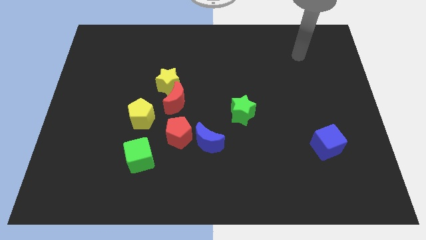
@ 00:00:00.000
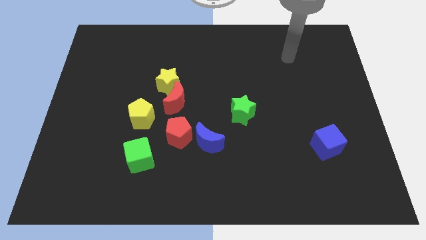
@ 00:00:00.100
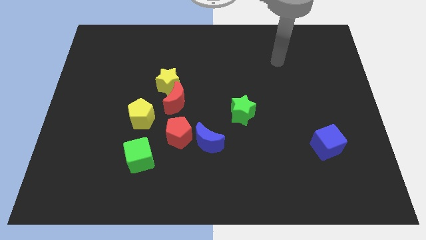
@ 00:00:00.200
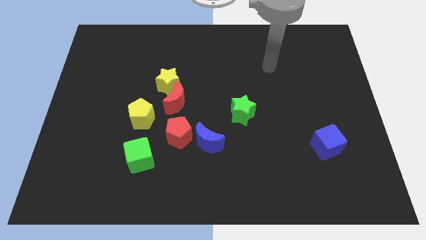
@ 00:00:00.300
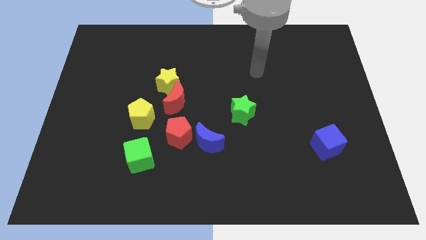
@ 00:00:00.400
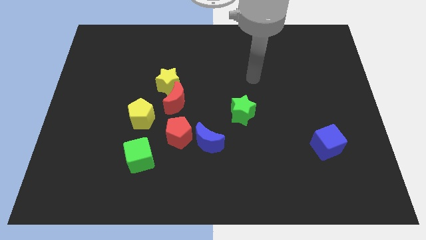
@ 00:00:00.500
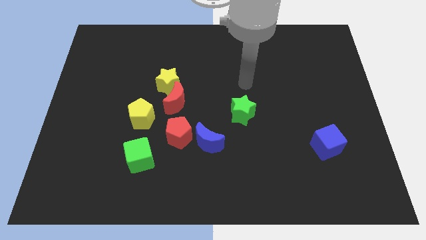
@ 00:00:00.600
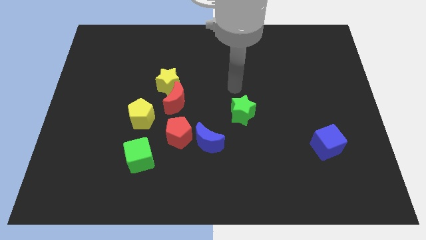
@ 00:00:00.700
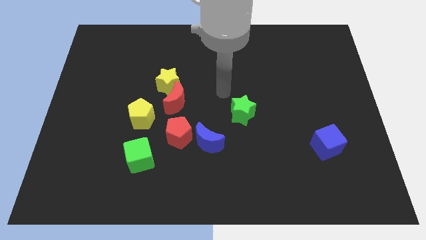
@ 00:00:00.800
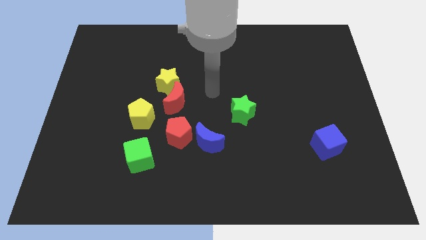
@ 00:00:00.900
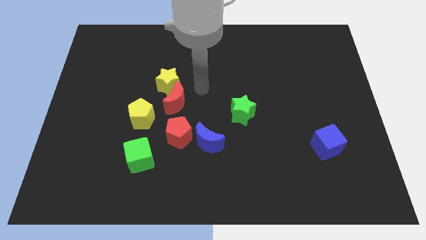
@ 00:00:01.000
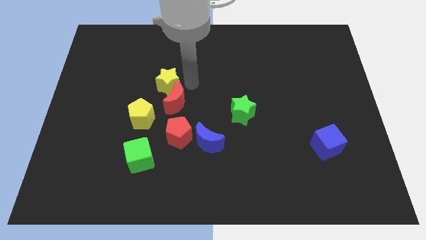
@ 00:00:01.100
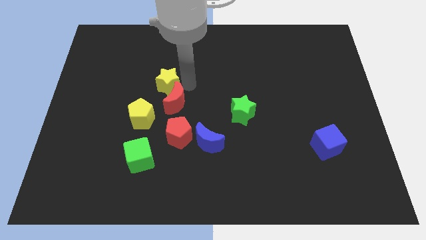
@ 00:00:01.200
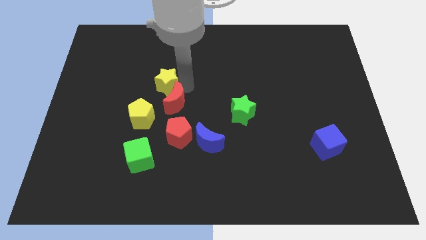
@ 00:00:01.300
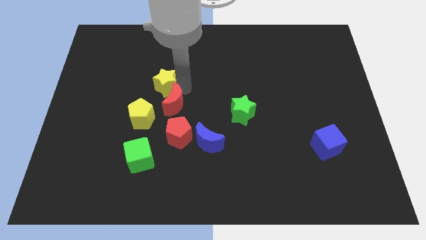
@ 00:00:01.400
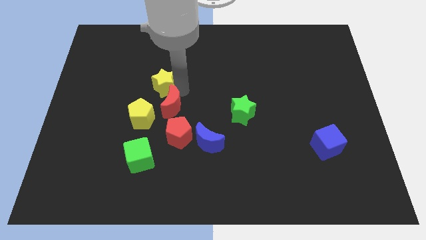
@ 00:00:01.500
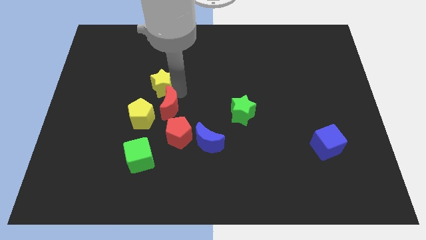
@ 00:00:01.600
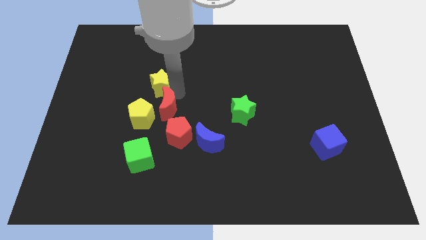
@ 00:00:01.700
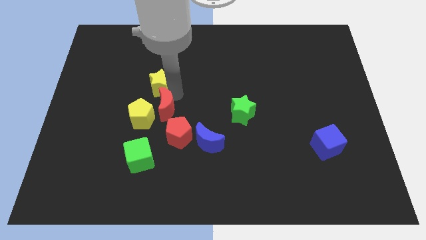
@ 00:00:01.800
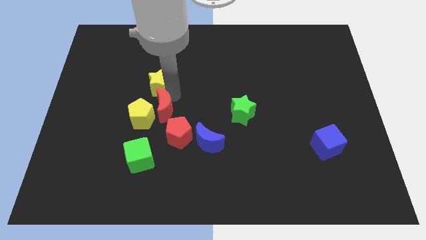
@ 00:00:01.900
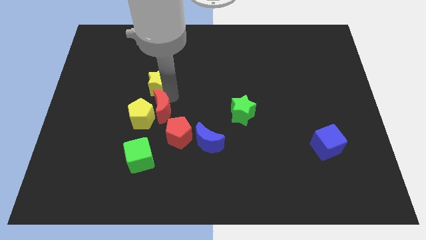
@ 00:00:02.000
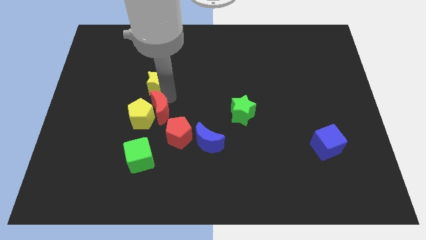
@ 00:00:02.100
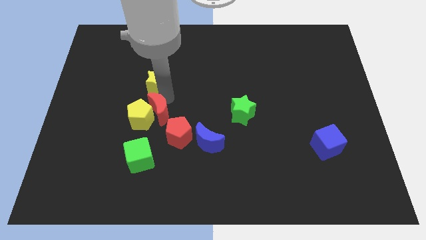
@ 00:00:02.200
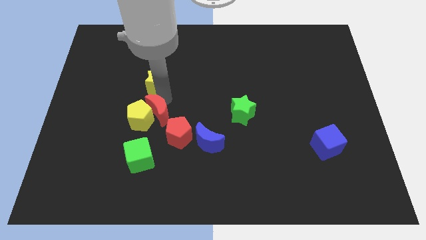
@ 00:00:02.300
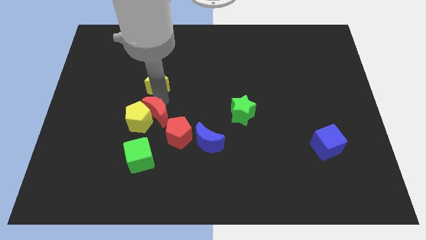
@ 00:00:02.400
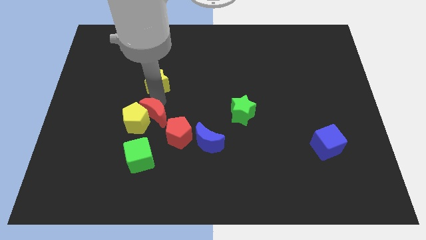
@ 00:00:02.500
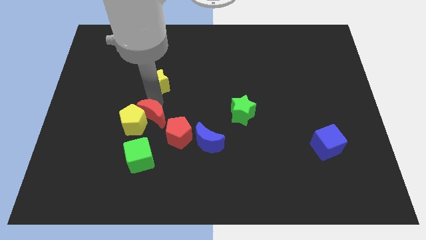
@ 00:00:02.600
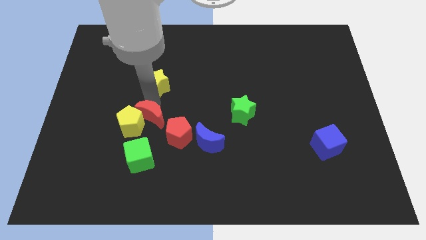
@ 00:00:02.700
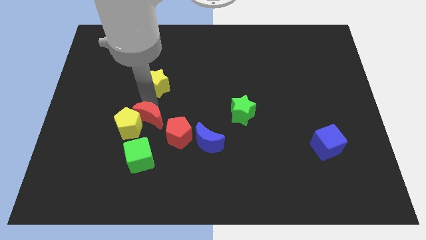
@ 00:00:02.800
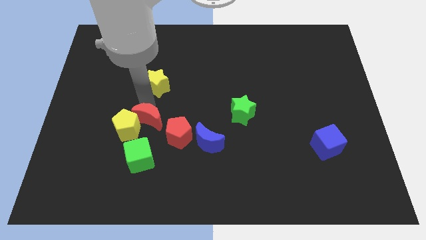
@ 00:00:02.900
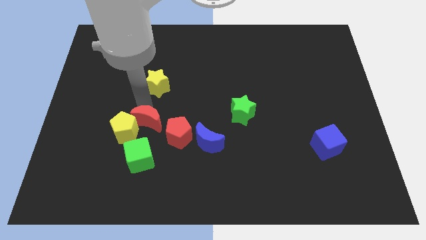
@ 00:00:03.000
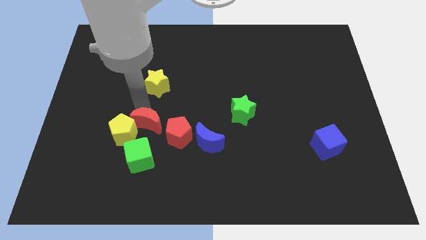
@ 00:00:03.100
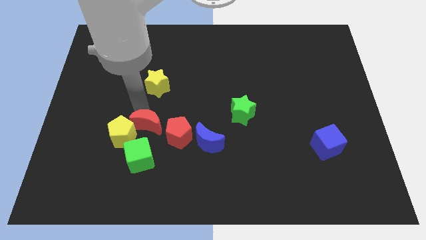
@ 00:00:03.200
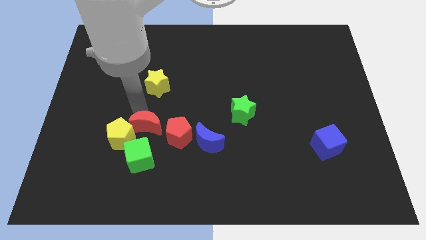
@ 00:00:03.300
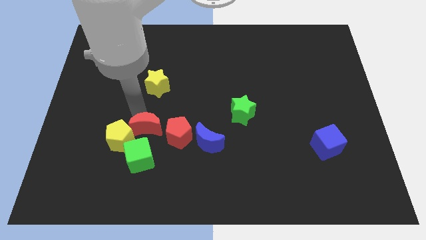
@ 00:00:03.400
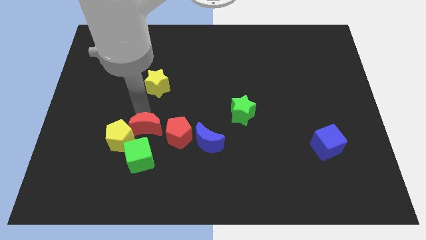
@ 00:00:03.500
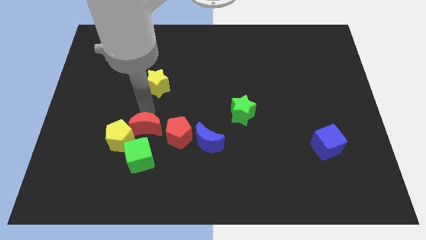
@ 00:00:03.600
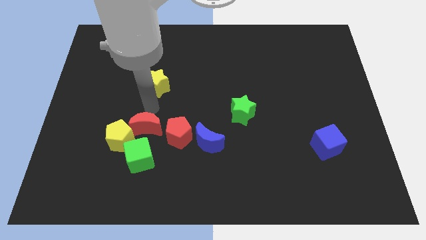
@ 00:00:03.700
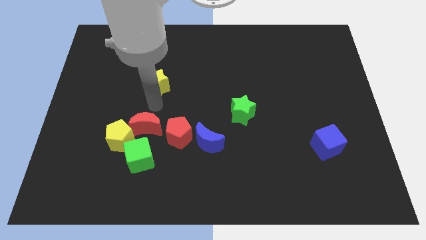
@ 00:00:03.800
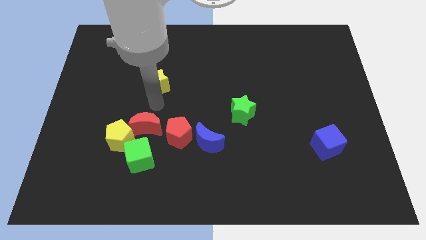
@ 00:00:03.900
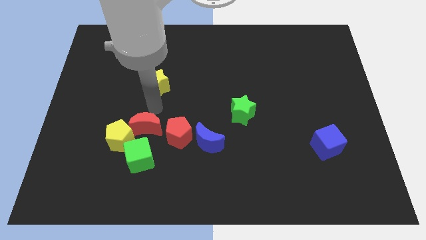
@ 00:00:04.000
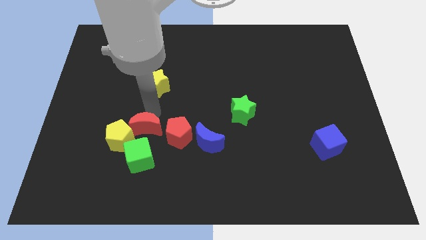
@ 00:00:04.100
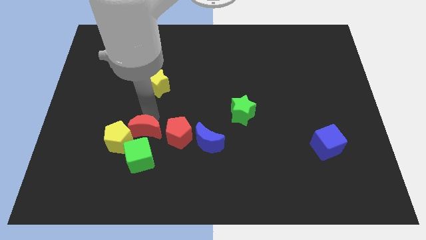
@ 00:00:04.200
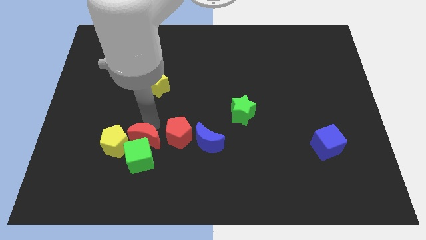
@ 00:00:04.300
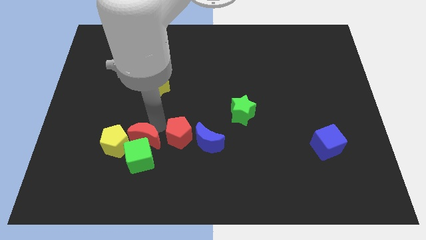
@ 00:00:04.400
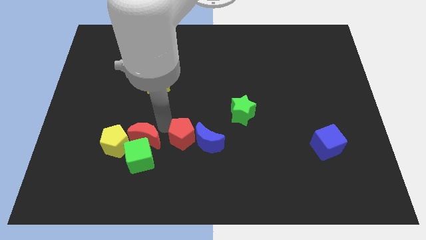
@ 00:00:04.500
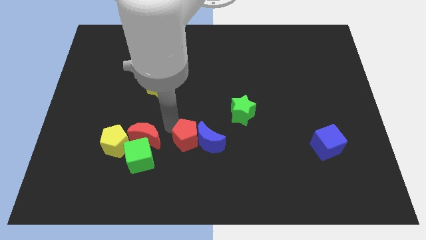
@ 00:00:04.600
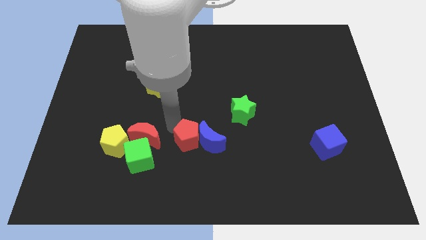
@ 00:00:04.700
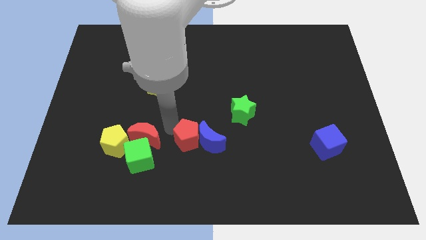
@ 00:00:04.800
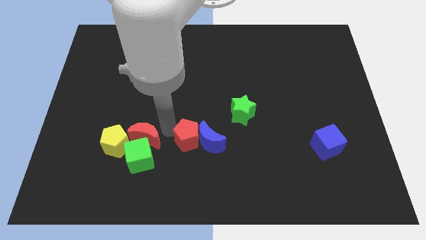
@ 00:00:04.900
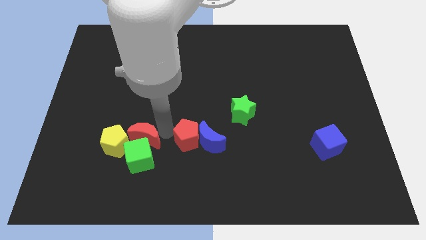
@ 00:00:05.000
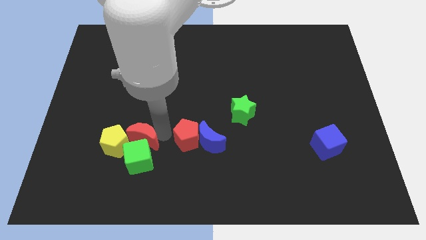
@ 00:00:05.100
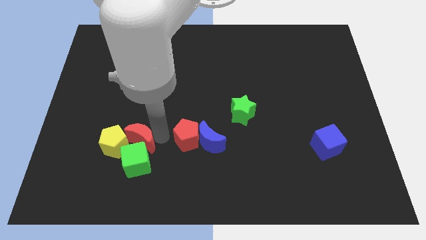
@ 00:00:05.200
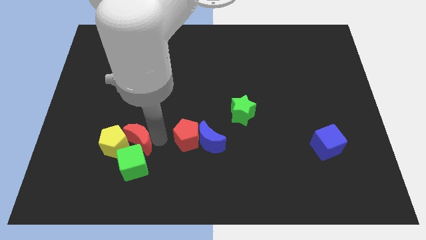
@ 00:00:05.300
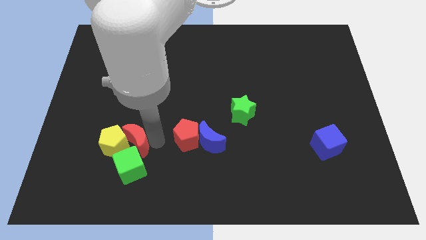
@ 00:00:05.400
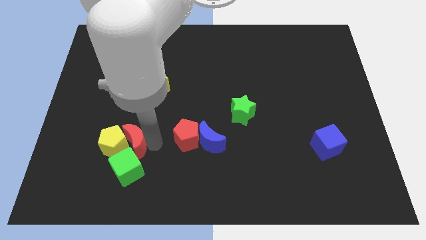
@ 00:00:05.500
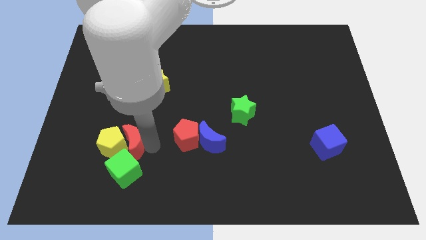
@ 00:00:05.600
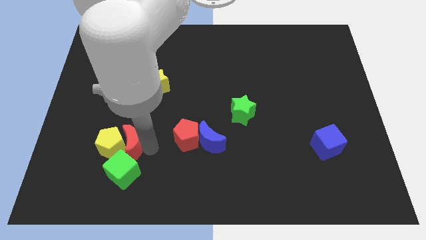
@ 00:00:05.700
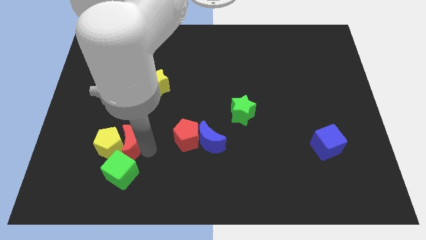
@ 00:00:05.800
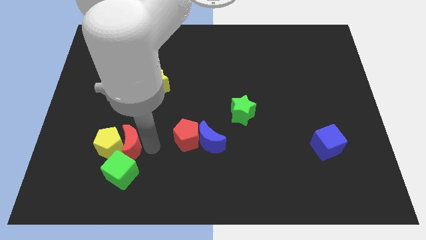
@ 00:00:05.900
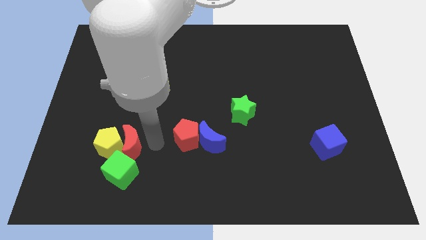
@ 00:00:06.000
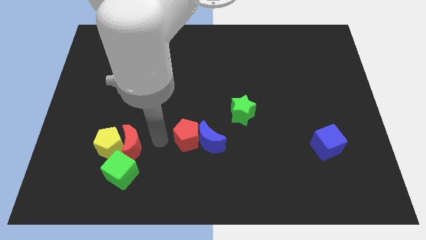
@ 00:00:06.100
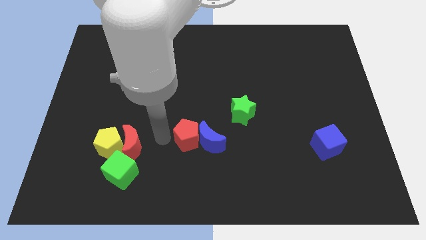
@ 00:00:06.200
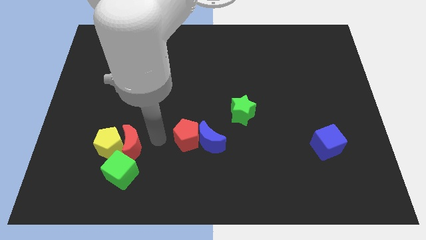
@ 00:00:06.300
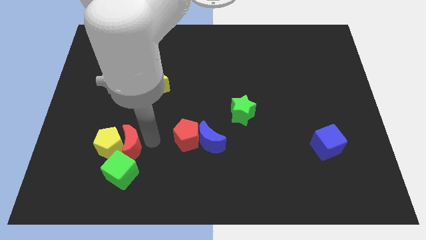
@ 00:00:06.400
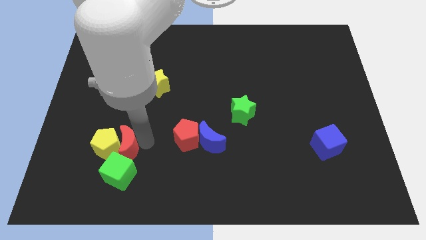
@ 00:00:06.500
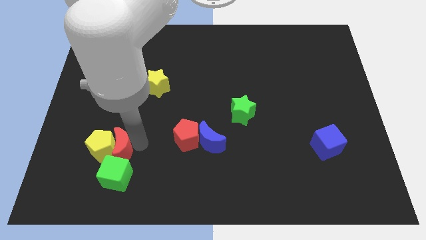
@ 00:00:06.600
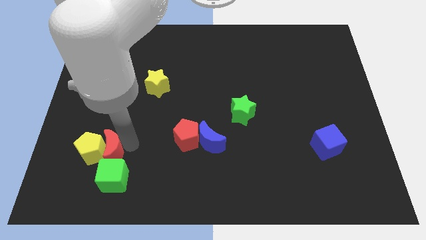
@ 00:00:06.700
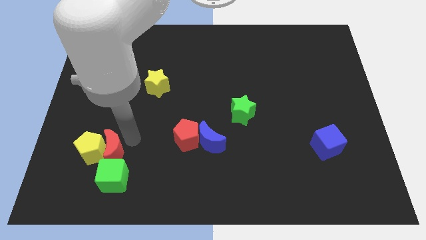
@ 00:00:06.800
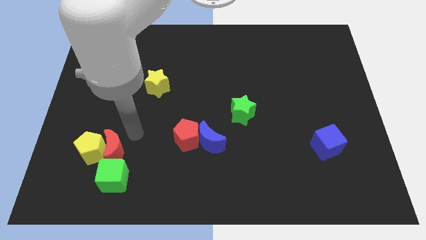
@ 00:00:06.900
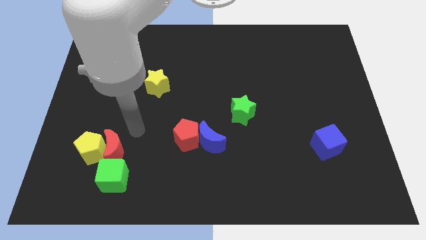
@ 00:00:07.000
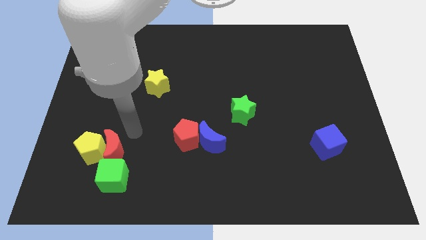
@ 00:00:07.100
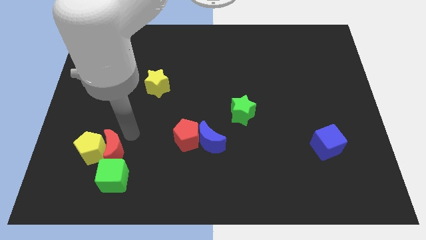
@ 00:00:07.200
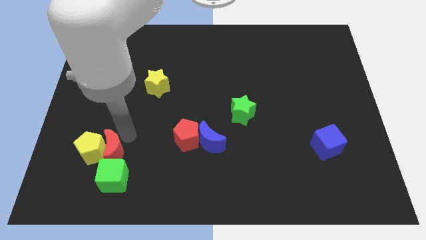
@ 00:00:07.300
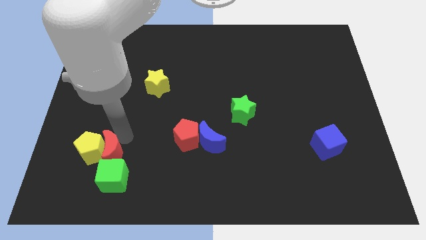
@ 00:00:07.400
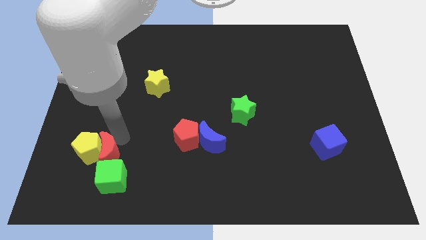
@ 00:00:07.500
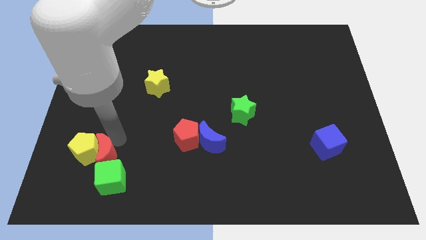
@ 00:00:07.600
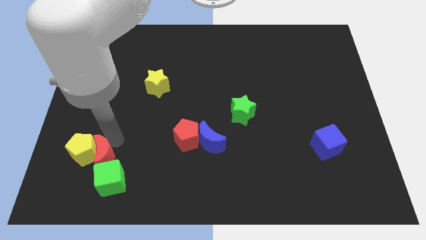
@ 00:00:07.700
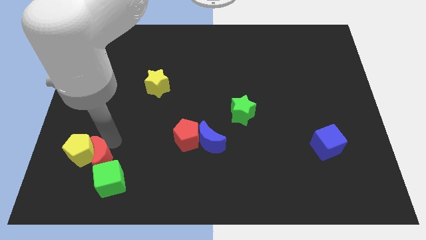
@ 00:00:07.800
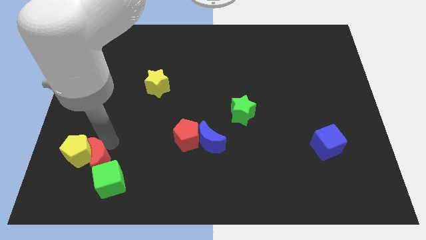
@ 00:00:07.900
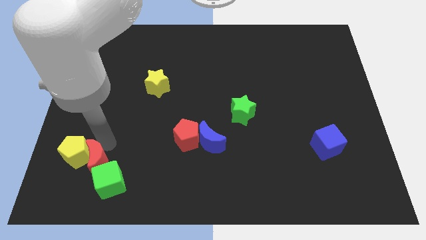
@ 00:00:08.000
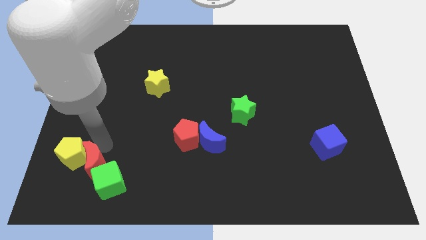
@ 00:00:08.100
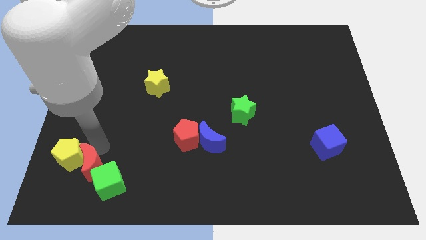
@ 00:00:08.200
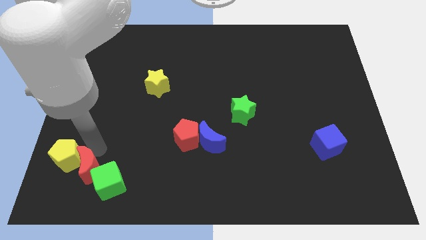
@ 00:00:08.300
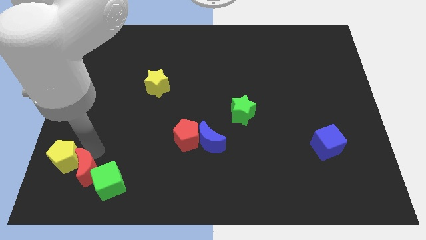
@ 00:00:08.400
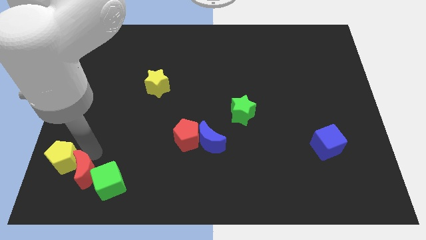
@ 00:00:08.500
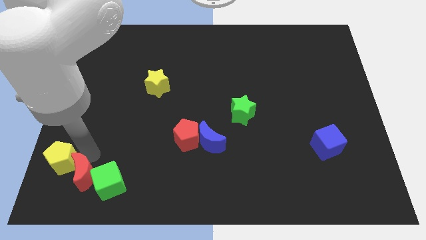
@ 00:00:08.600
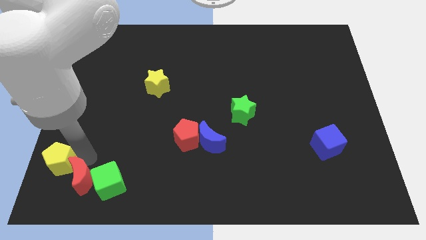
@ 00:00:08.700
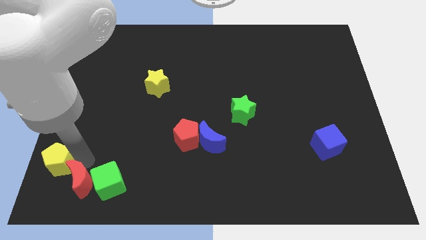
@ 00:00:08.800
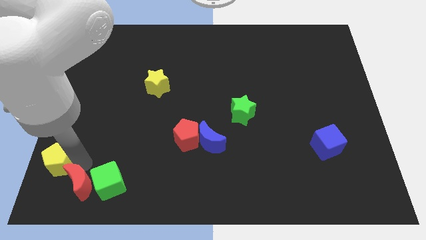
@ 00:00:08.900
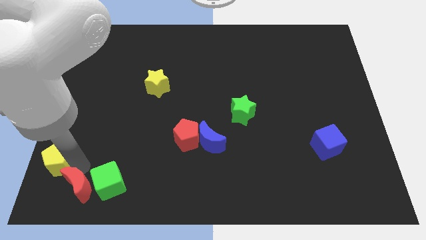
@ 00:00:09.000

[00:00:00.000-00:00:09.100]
move the red moon to the bottom left of the board
